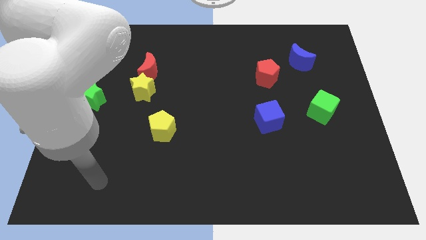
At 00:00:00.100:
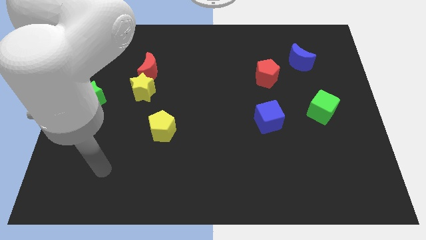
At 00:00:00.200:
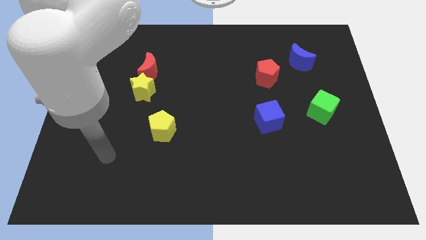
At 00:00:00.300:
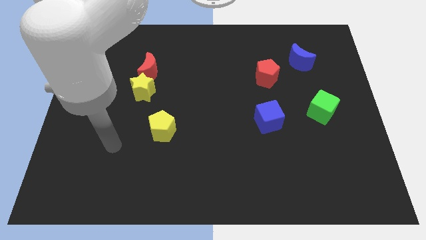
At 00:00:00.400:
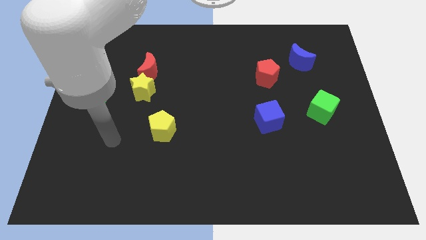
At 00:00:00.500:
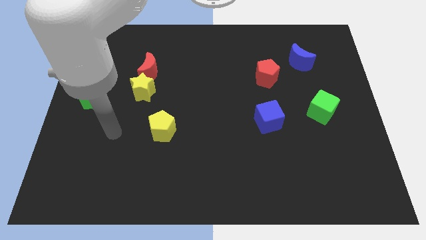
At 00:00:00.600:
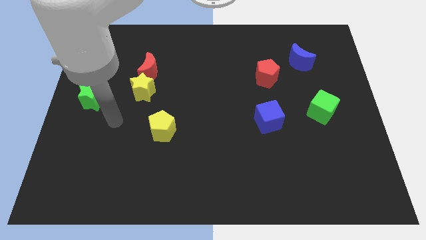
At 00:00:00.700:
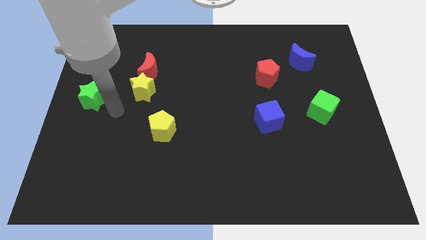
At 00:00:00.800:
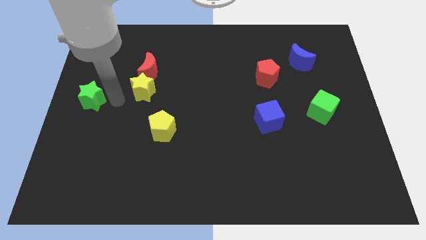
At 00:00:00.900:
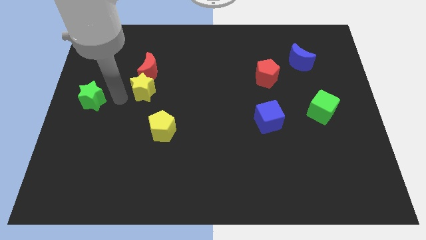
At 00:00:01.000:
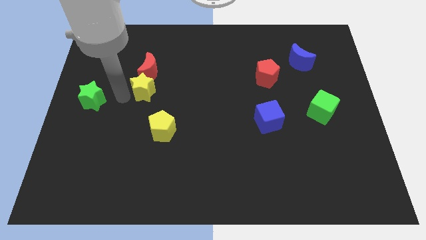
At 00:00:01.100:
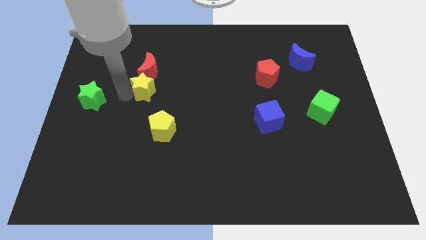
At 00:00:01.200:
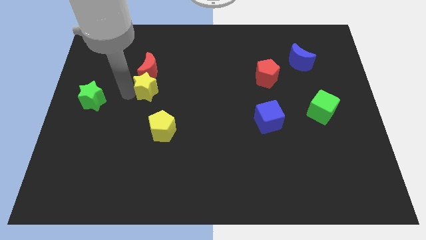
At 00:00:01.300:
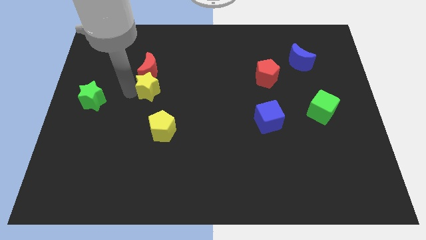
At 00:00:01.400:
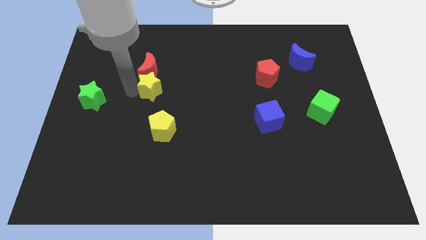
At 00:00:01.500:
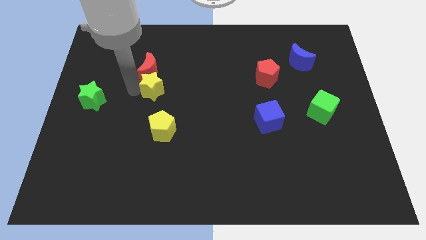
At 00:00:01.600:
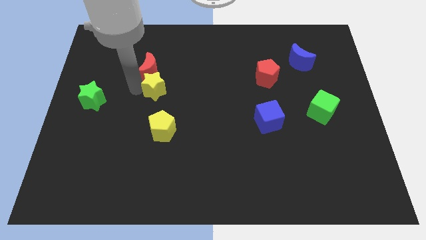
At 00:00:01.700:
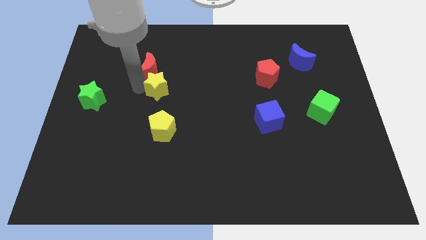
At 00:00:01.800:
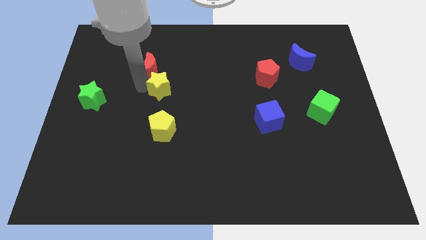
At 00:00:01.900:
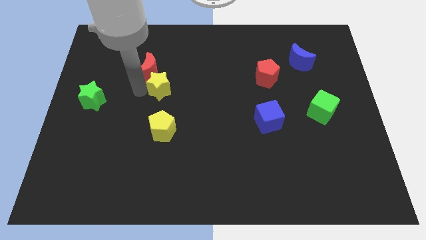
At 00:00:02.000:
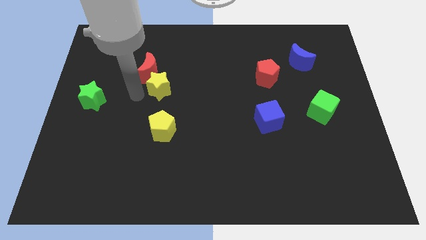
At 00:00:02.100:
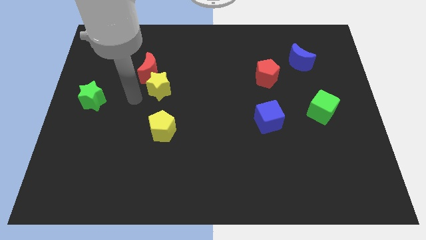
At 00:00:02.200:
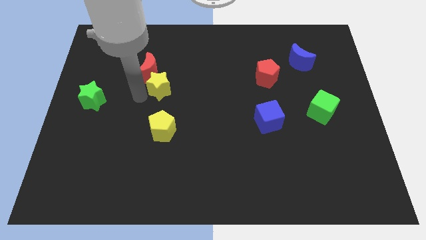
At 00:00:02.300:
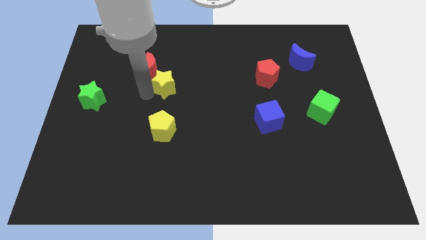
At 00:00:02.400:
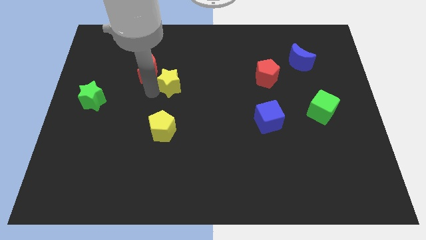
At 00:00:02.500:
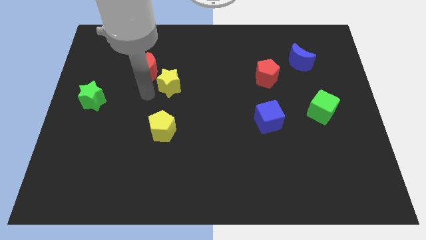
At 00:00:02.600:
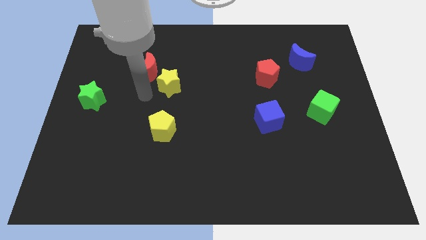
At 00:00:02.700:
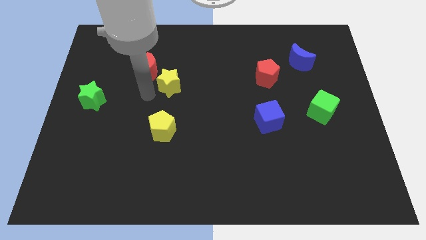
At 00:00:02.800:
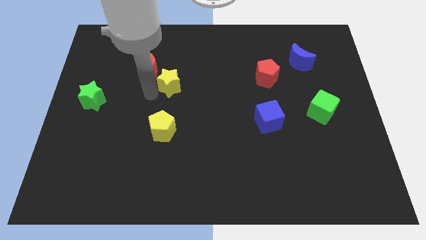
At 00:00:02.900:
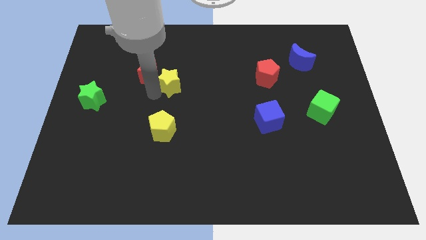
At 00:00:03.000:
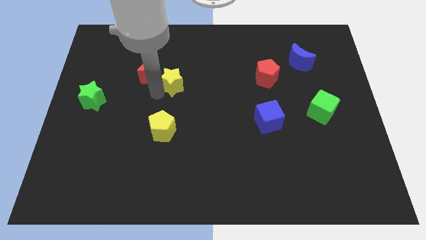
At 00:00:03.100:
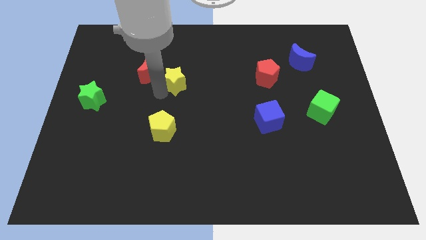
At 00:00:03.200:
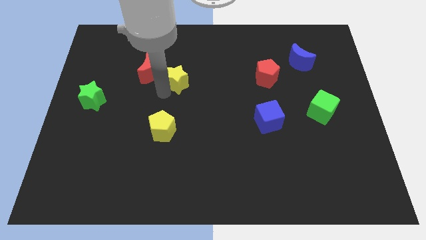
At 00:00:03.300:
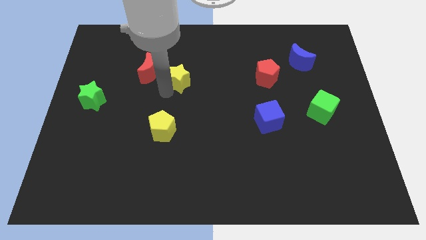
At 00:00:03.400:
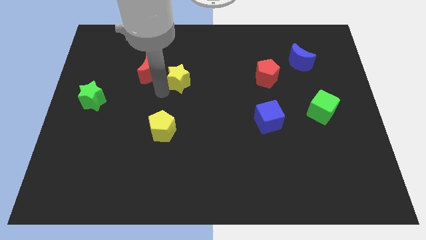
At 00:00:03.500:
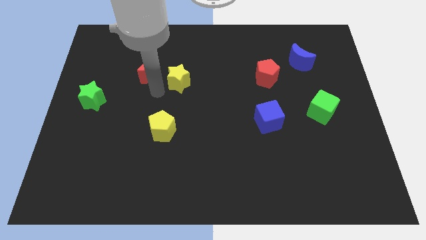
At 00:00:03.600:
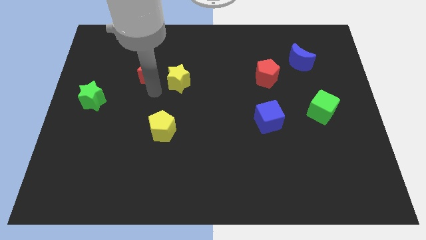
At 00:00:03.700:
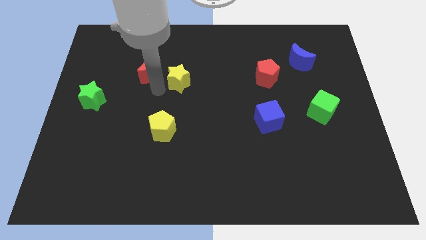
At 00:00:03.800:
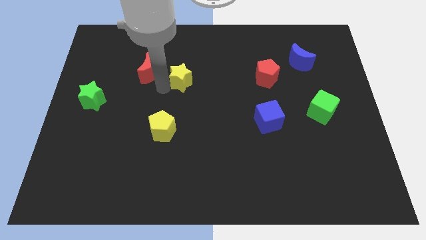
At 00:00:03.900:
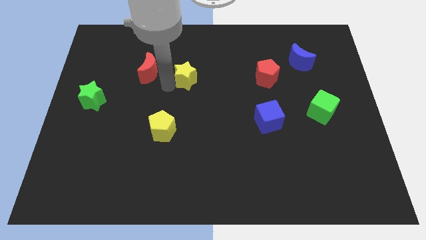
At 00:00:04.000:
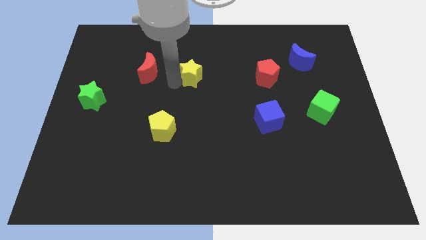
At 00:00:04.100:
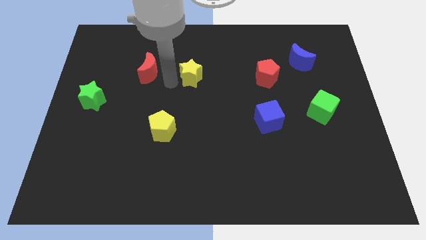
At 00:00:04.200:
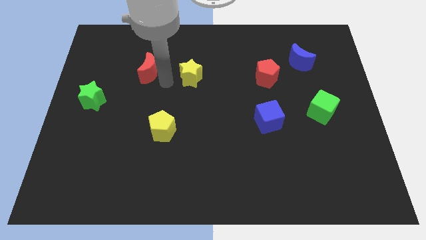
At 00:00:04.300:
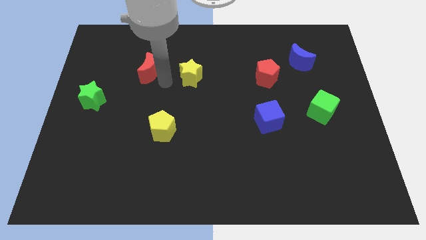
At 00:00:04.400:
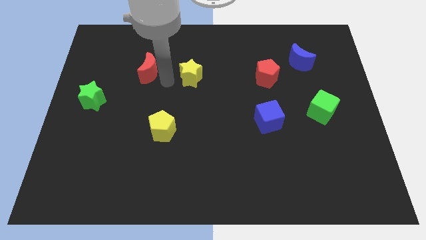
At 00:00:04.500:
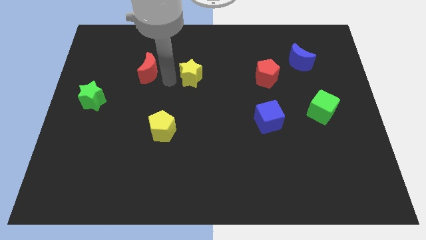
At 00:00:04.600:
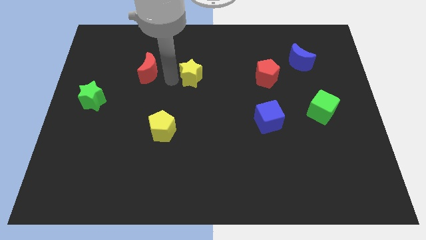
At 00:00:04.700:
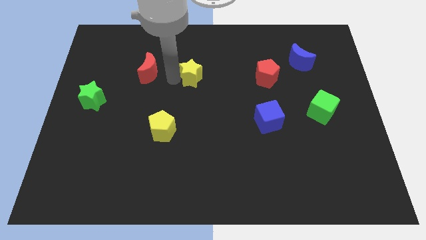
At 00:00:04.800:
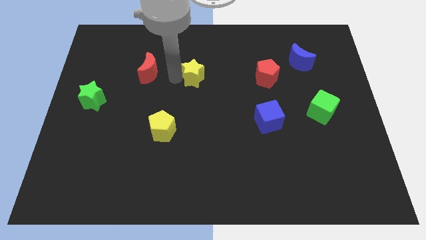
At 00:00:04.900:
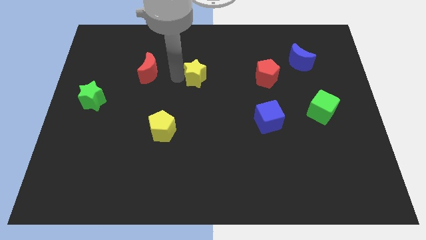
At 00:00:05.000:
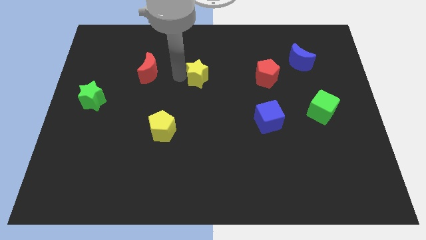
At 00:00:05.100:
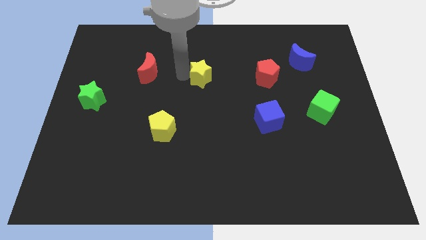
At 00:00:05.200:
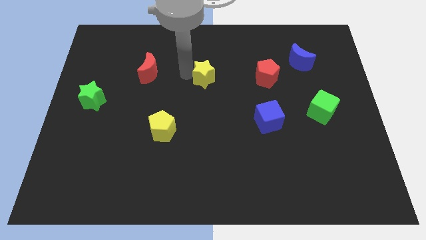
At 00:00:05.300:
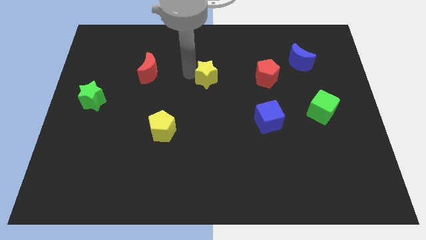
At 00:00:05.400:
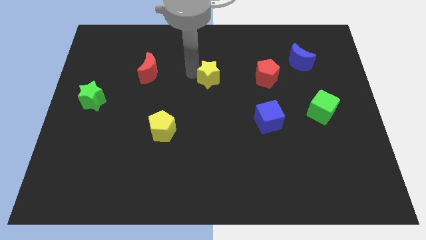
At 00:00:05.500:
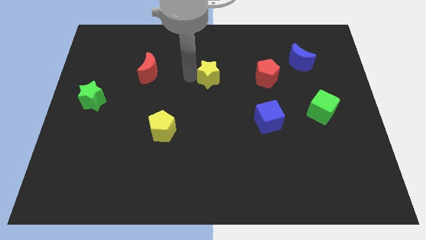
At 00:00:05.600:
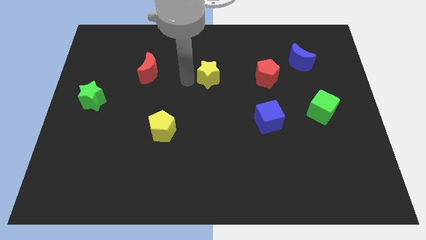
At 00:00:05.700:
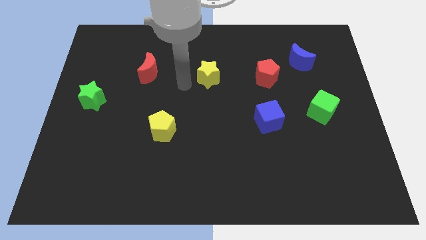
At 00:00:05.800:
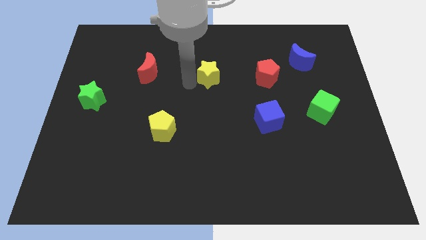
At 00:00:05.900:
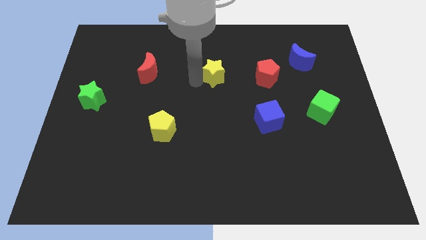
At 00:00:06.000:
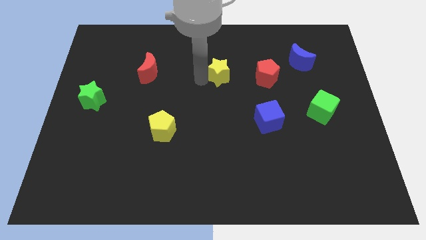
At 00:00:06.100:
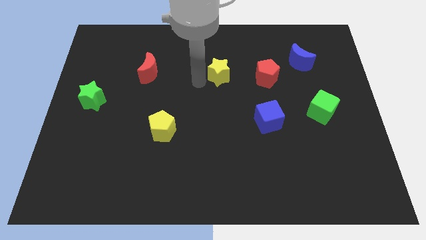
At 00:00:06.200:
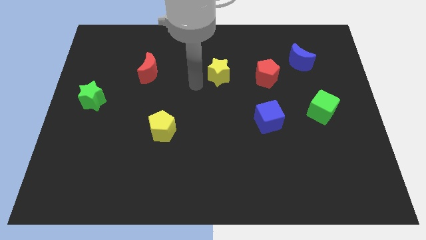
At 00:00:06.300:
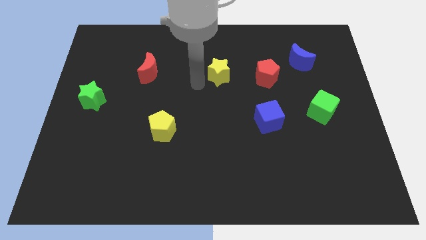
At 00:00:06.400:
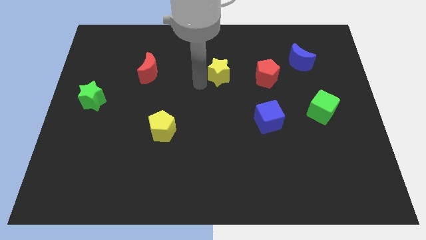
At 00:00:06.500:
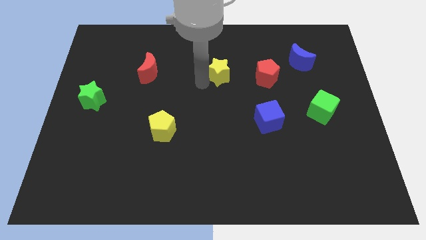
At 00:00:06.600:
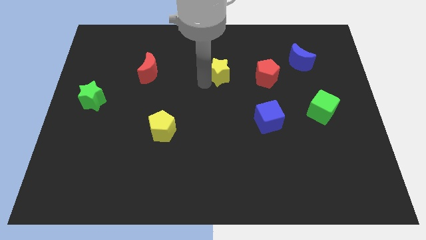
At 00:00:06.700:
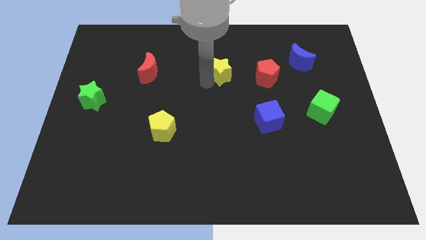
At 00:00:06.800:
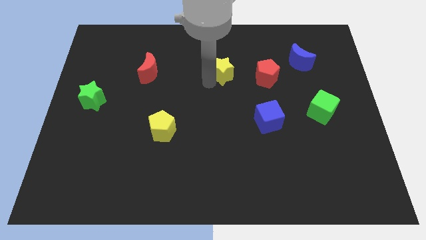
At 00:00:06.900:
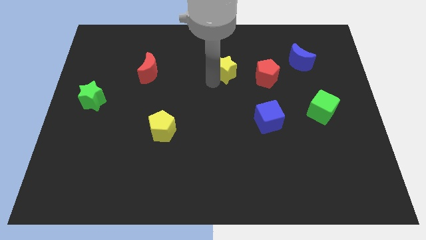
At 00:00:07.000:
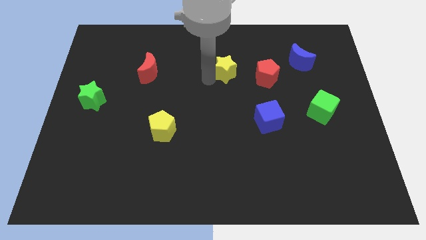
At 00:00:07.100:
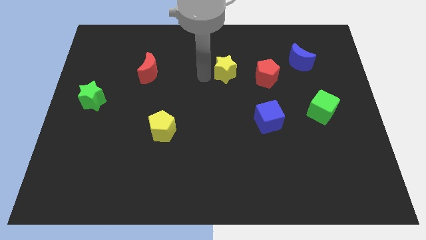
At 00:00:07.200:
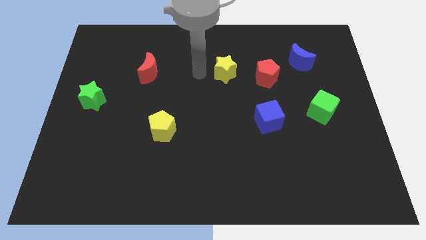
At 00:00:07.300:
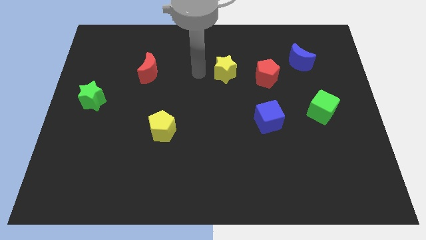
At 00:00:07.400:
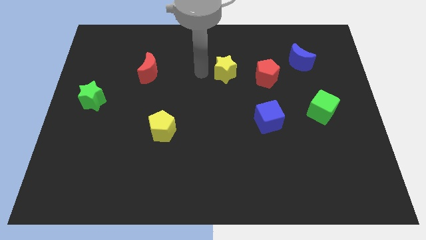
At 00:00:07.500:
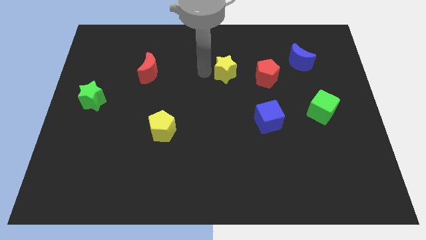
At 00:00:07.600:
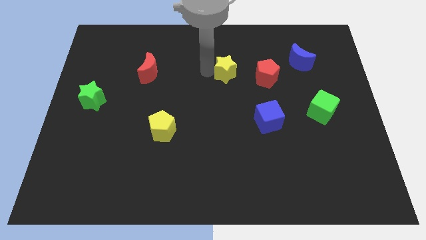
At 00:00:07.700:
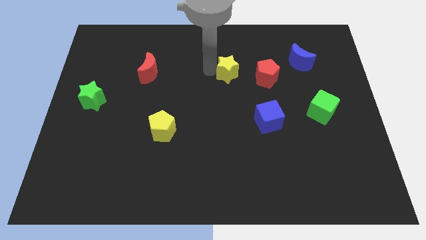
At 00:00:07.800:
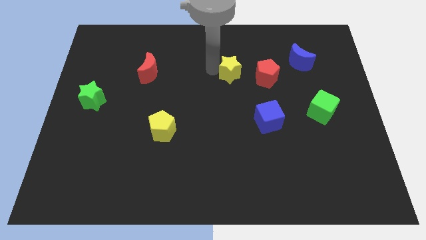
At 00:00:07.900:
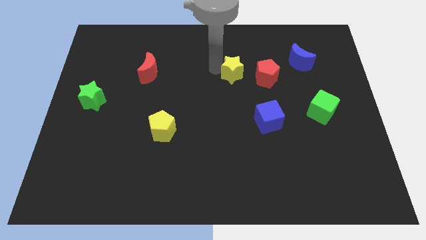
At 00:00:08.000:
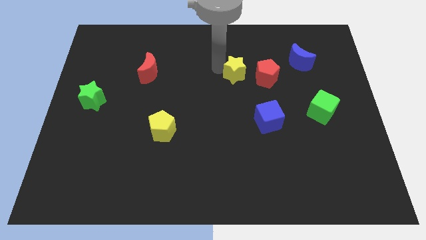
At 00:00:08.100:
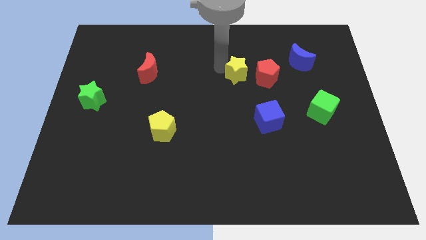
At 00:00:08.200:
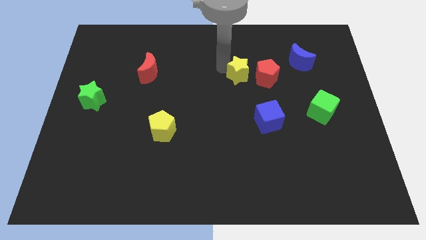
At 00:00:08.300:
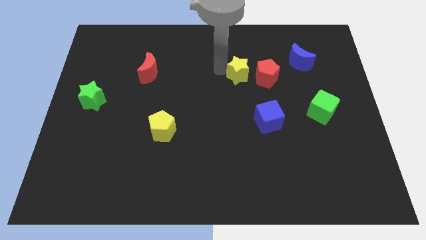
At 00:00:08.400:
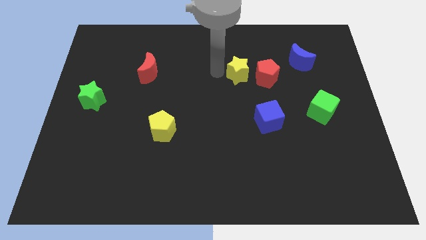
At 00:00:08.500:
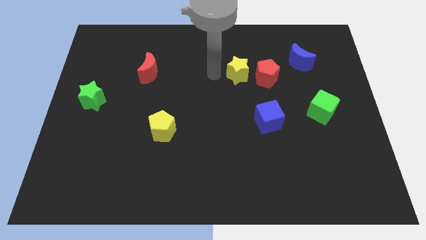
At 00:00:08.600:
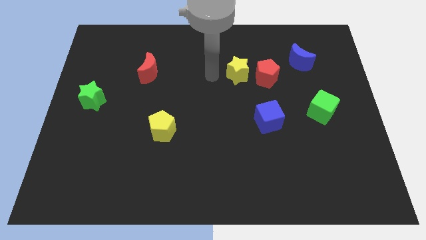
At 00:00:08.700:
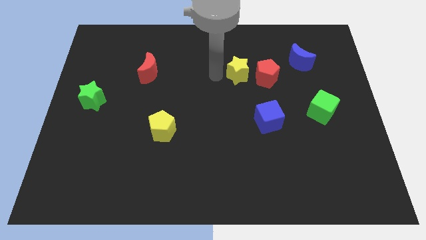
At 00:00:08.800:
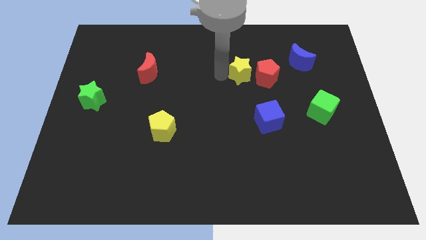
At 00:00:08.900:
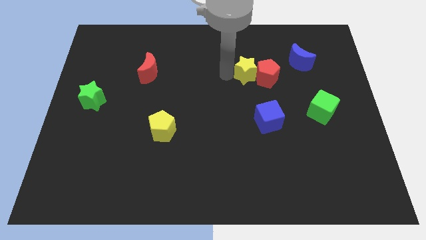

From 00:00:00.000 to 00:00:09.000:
move the yellow star next to the red pentagon
